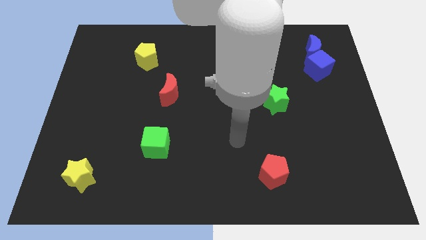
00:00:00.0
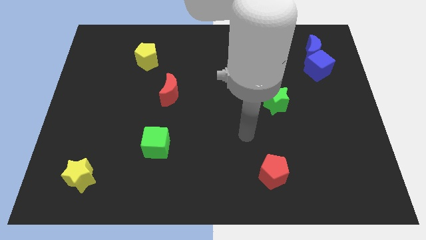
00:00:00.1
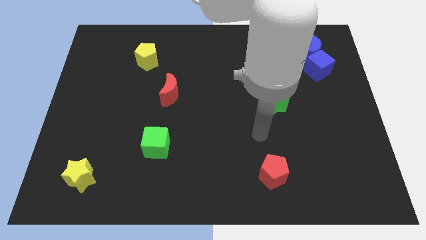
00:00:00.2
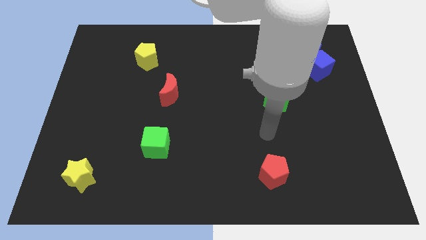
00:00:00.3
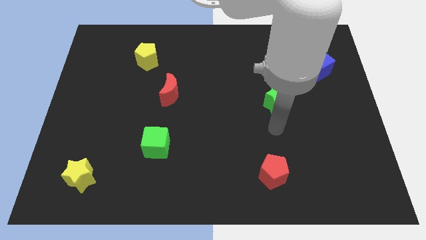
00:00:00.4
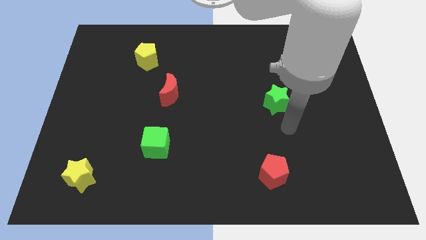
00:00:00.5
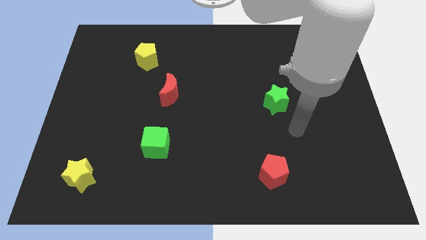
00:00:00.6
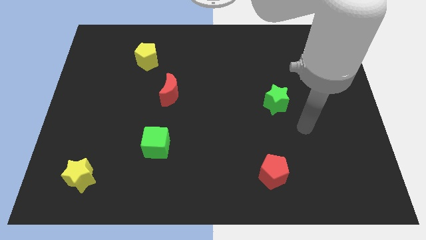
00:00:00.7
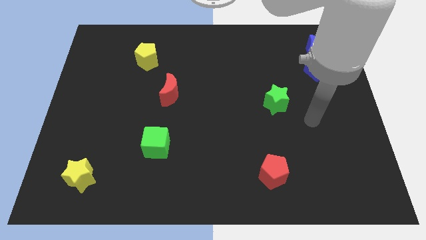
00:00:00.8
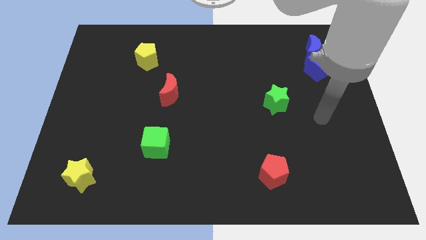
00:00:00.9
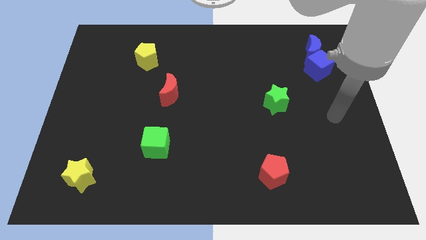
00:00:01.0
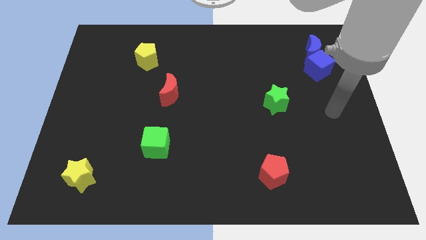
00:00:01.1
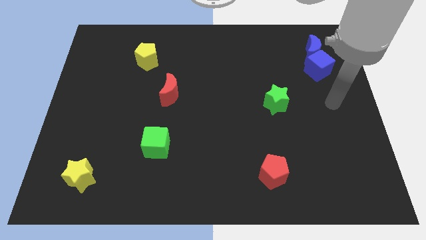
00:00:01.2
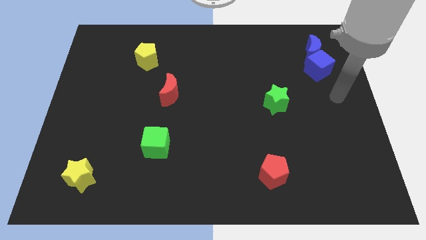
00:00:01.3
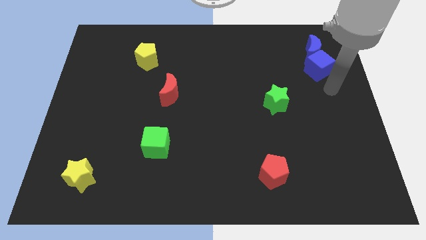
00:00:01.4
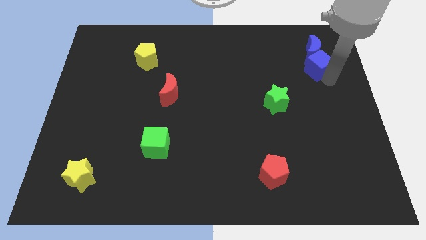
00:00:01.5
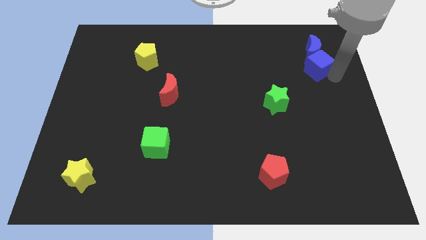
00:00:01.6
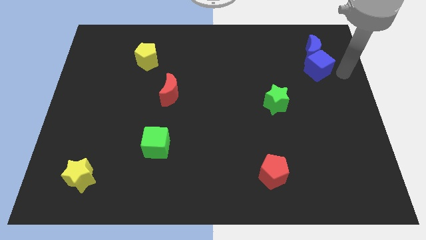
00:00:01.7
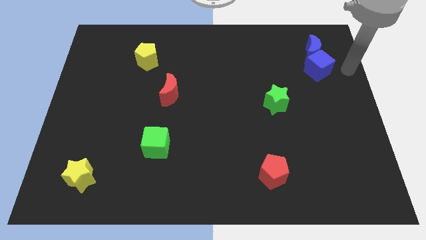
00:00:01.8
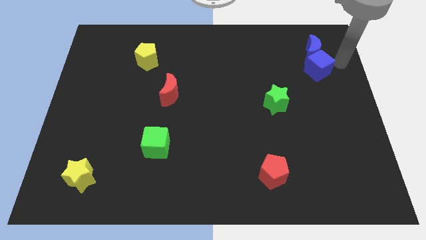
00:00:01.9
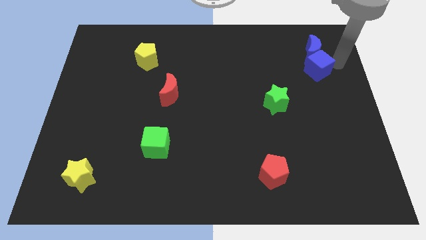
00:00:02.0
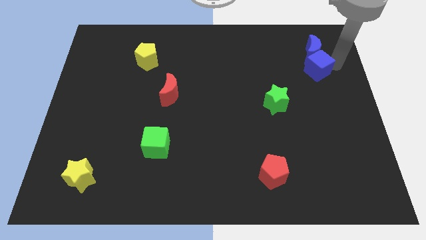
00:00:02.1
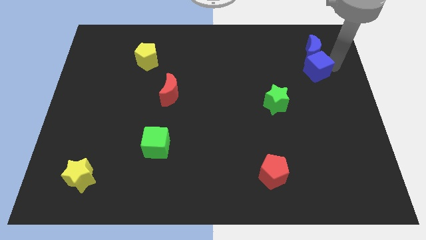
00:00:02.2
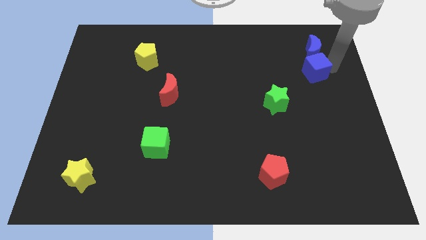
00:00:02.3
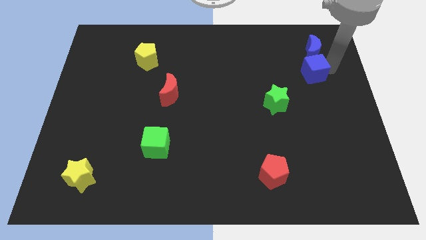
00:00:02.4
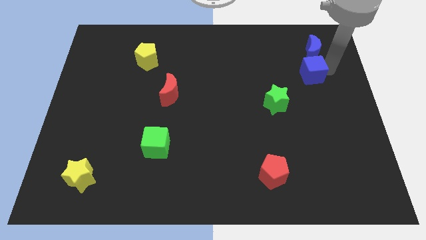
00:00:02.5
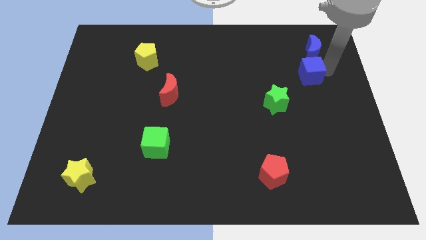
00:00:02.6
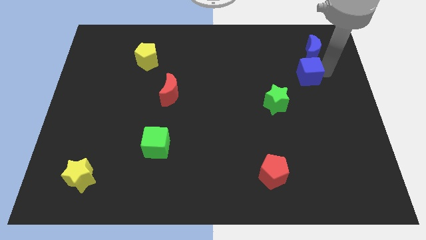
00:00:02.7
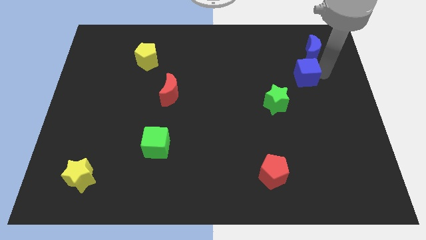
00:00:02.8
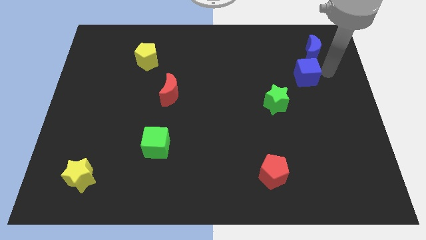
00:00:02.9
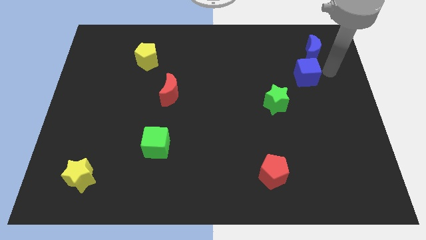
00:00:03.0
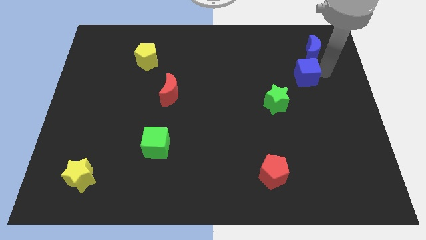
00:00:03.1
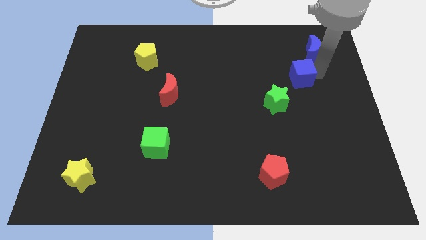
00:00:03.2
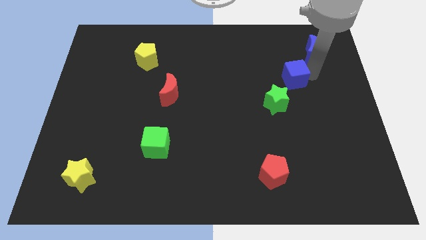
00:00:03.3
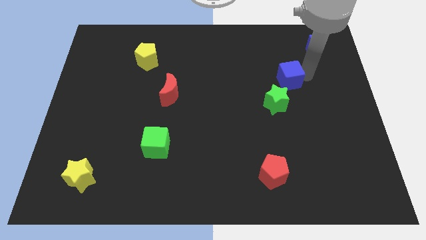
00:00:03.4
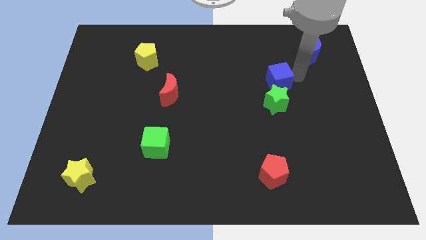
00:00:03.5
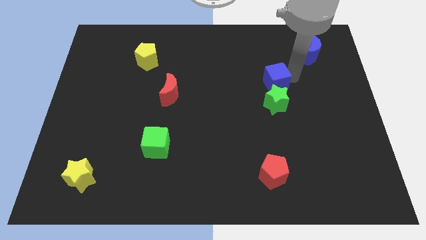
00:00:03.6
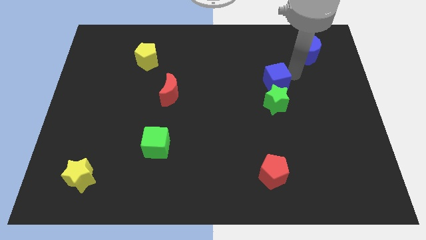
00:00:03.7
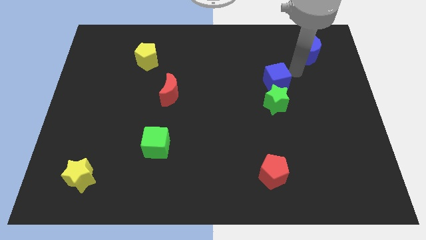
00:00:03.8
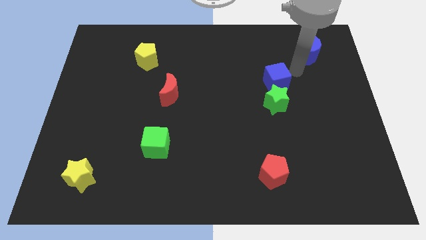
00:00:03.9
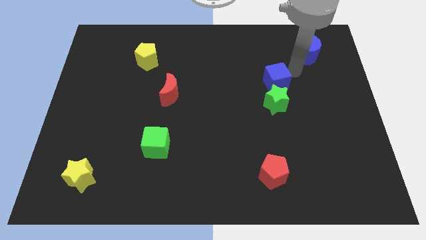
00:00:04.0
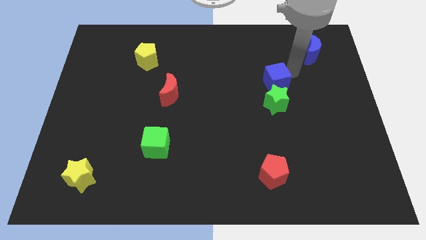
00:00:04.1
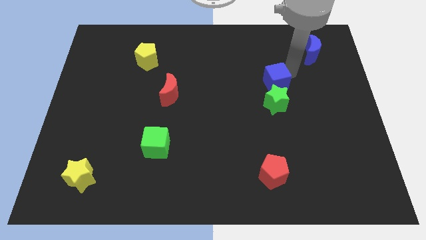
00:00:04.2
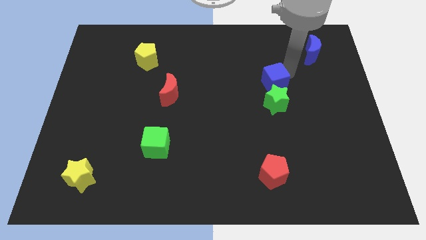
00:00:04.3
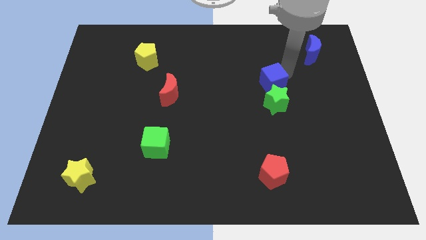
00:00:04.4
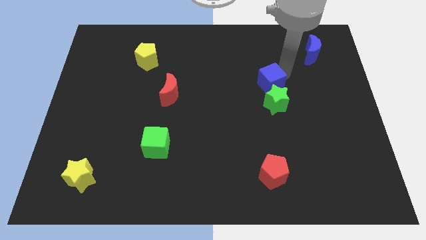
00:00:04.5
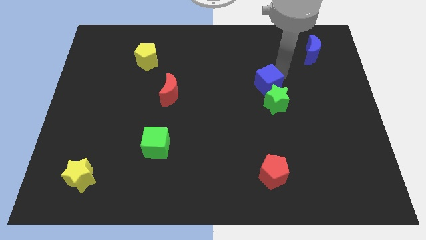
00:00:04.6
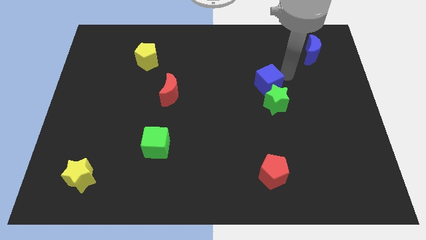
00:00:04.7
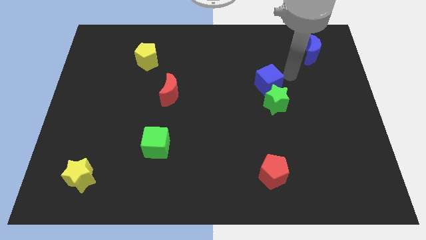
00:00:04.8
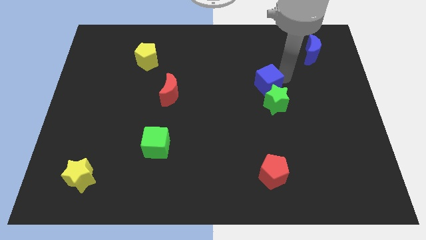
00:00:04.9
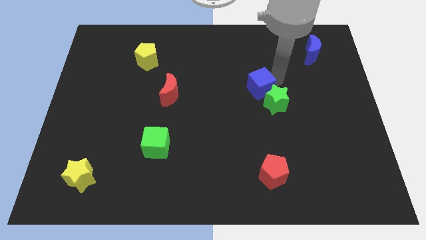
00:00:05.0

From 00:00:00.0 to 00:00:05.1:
slide the blue cube to the middle
